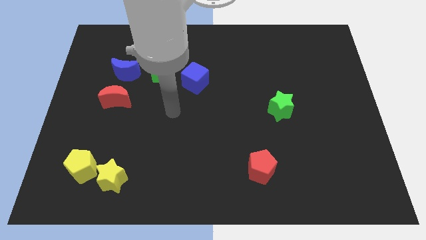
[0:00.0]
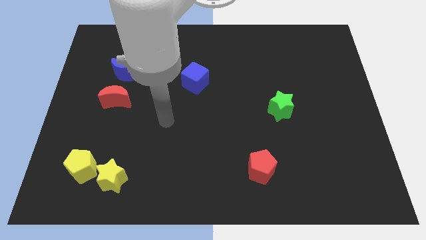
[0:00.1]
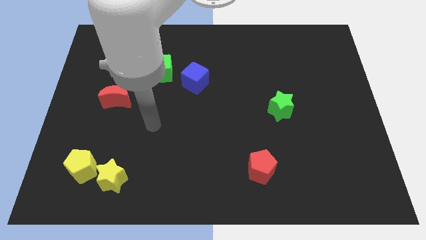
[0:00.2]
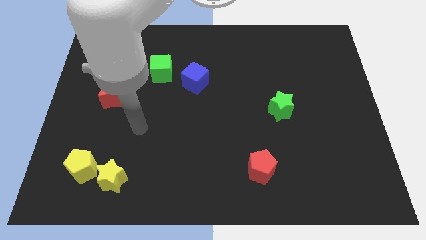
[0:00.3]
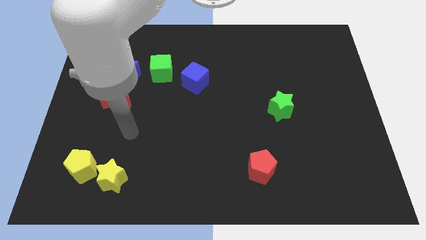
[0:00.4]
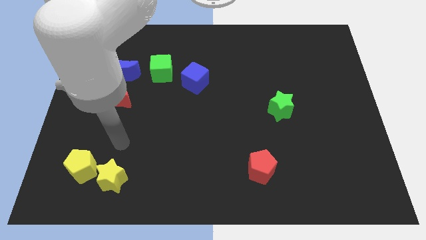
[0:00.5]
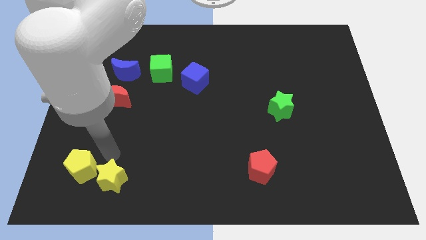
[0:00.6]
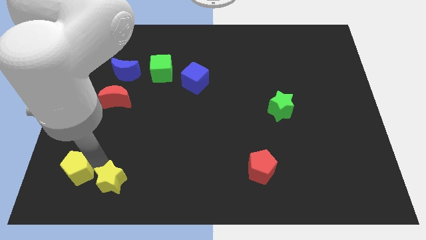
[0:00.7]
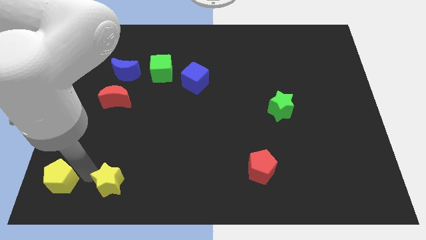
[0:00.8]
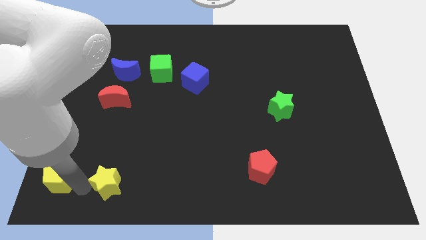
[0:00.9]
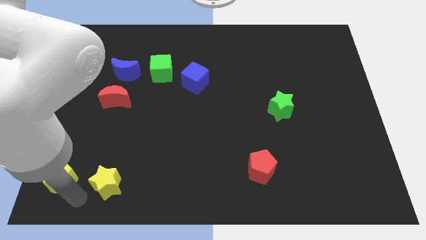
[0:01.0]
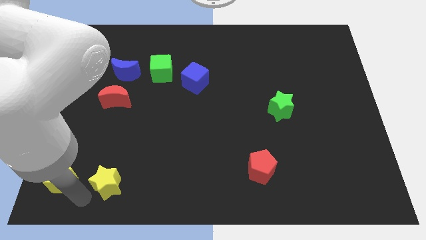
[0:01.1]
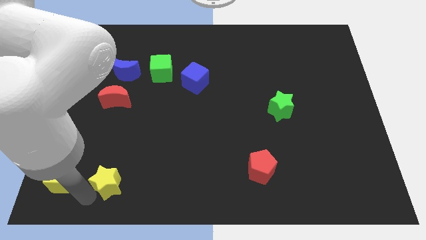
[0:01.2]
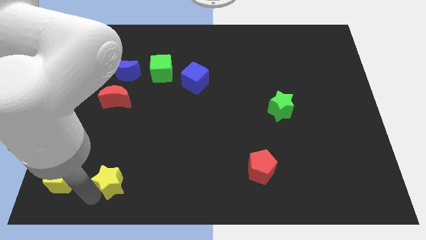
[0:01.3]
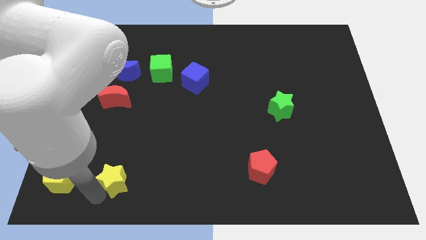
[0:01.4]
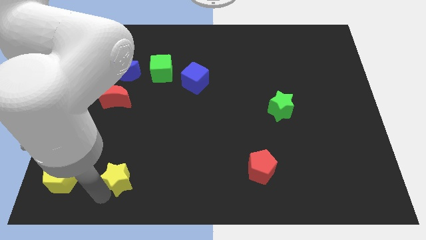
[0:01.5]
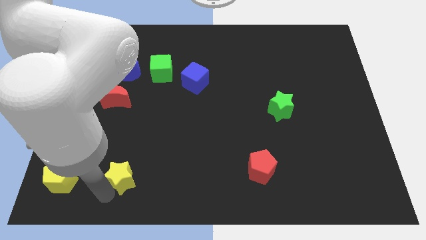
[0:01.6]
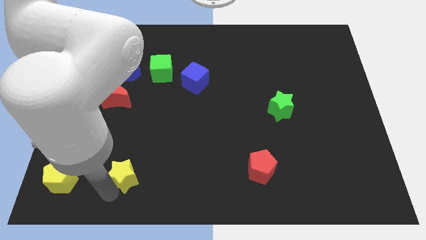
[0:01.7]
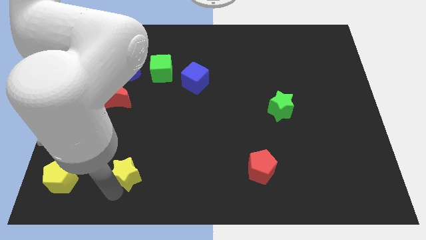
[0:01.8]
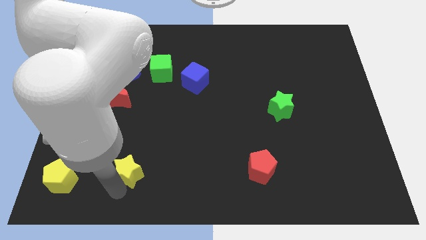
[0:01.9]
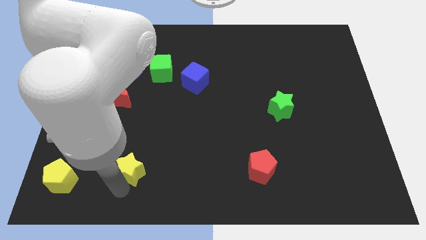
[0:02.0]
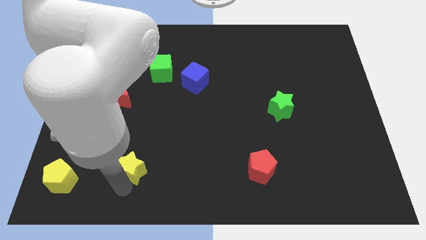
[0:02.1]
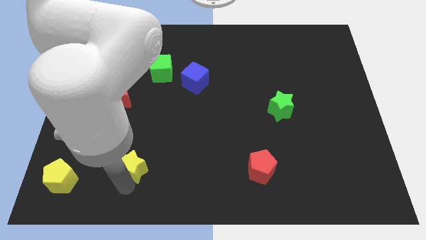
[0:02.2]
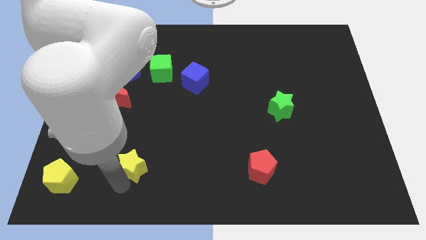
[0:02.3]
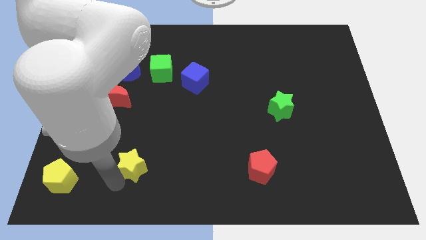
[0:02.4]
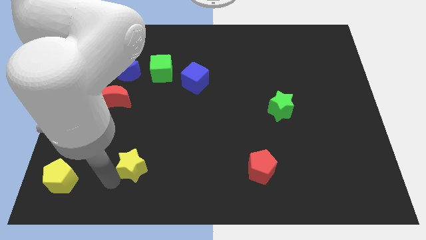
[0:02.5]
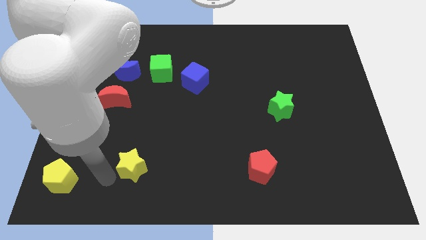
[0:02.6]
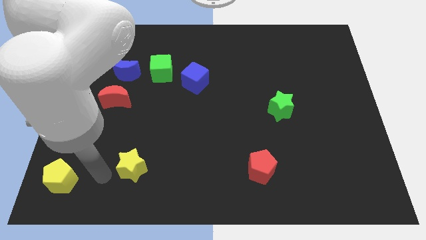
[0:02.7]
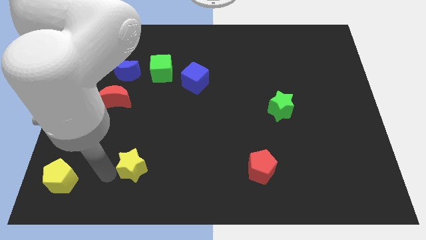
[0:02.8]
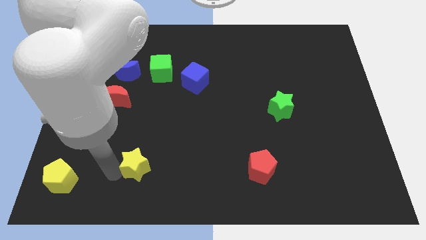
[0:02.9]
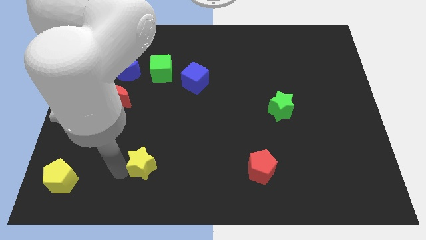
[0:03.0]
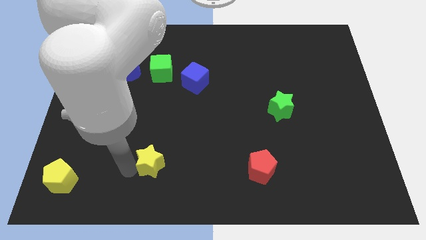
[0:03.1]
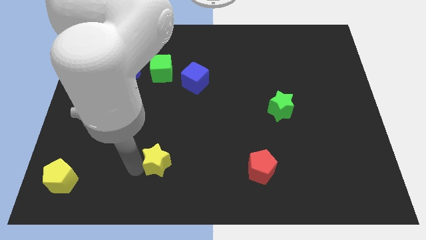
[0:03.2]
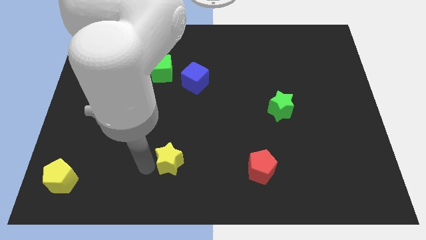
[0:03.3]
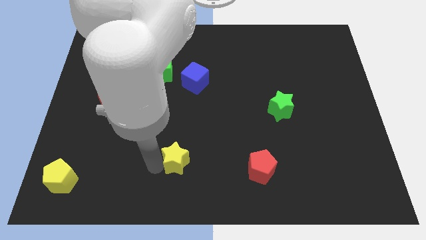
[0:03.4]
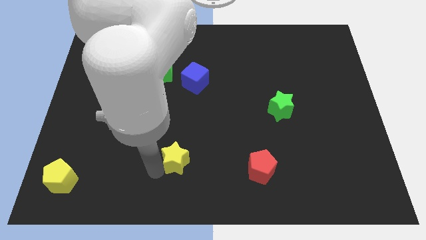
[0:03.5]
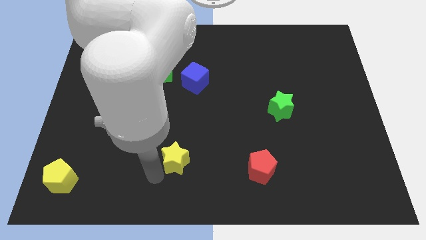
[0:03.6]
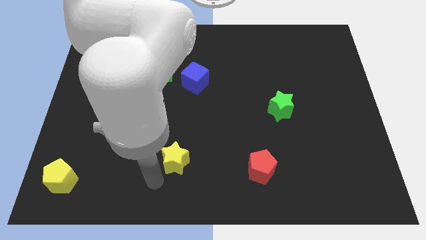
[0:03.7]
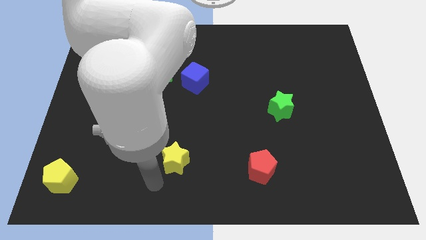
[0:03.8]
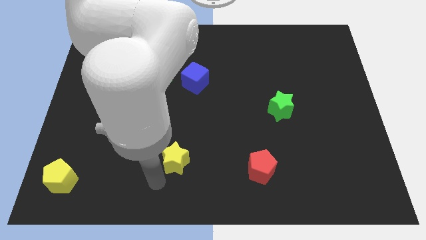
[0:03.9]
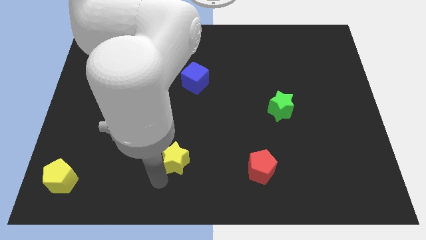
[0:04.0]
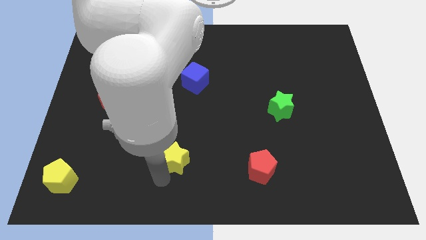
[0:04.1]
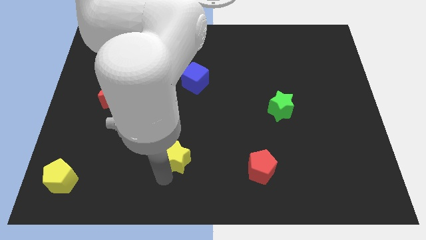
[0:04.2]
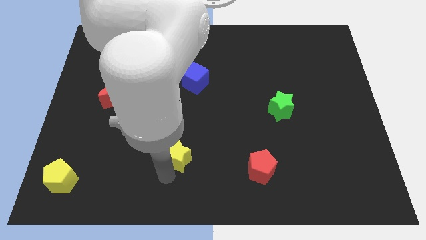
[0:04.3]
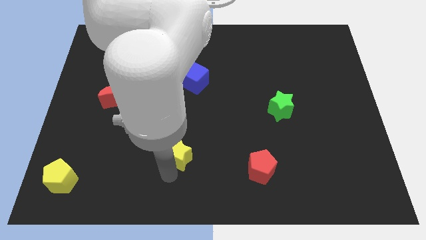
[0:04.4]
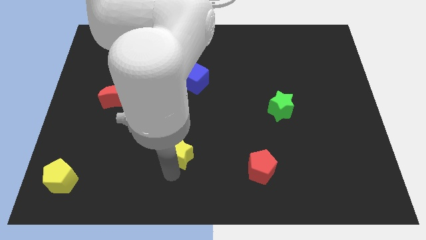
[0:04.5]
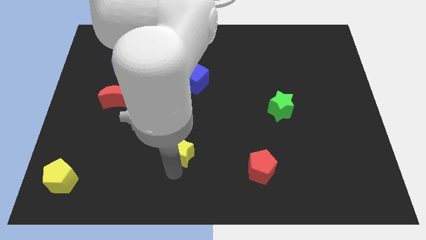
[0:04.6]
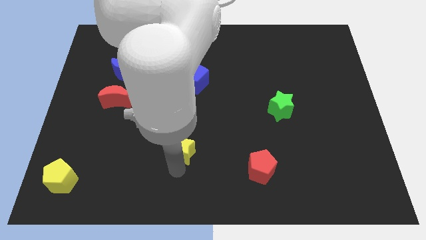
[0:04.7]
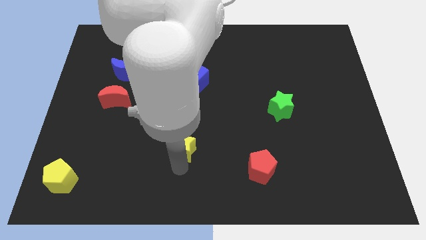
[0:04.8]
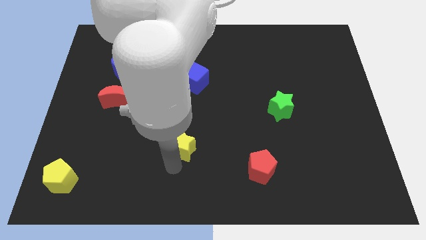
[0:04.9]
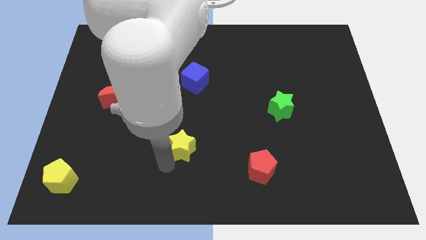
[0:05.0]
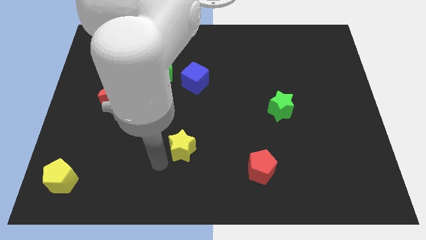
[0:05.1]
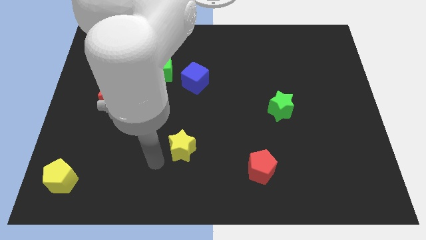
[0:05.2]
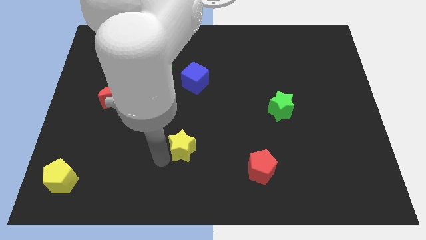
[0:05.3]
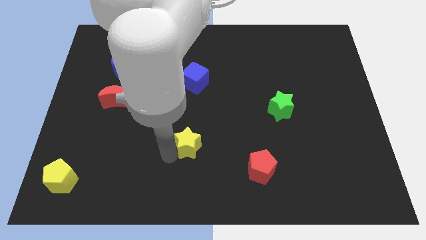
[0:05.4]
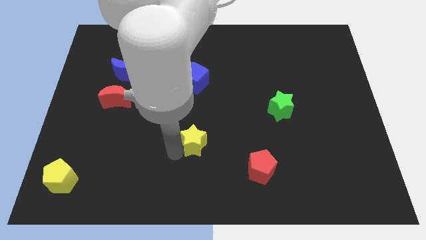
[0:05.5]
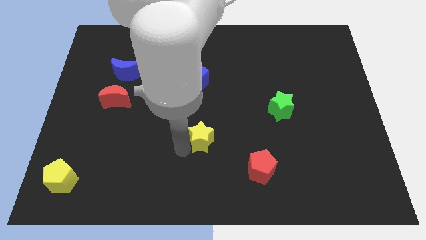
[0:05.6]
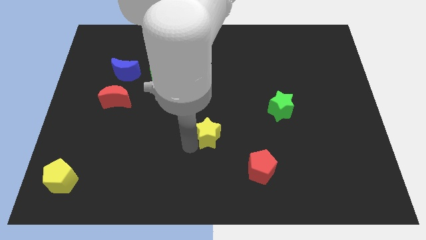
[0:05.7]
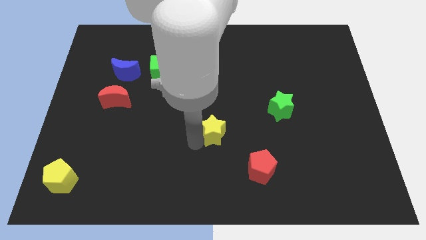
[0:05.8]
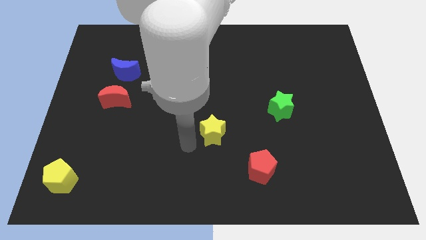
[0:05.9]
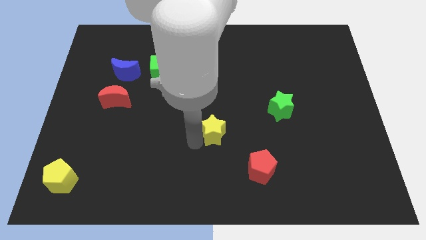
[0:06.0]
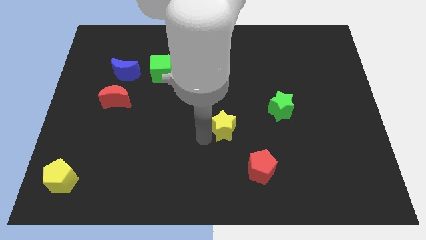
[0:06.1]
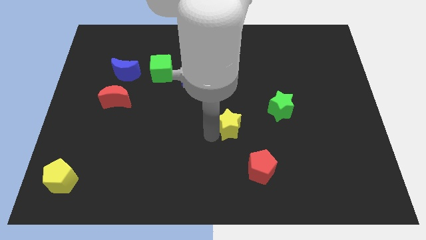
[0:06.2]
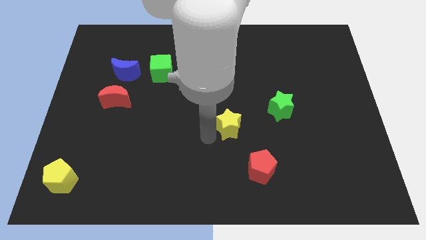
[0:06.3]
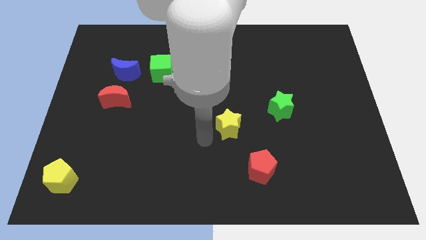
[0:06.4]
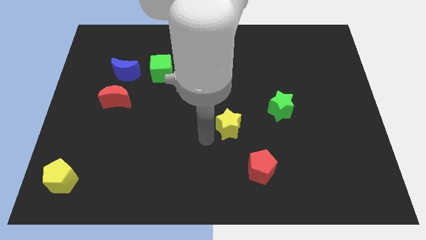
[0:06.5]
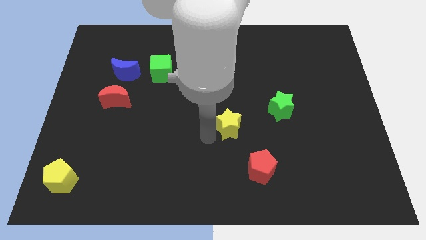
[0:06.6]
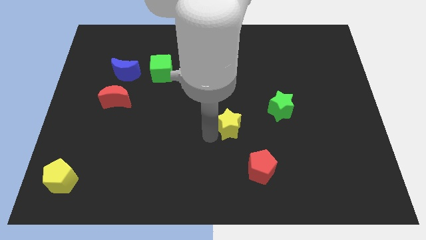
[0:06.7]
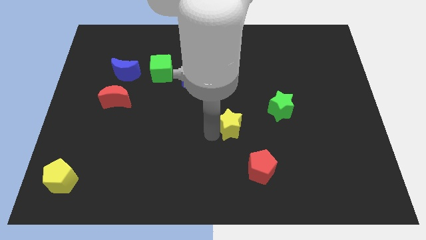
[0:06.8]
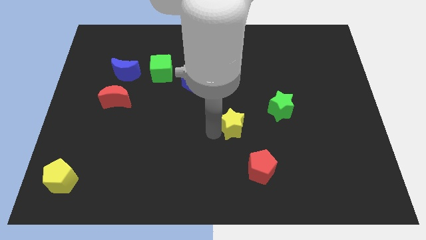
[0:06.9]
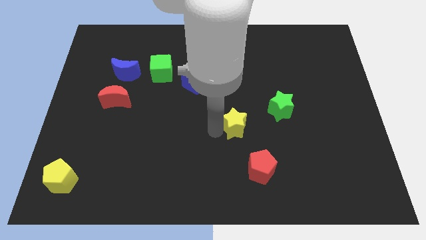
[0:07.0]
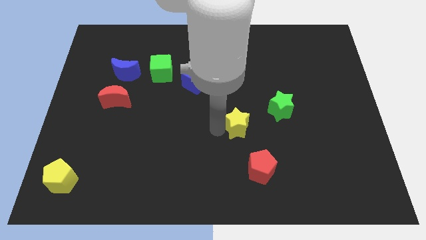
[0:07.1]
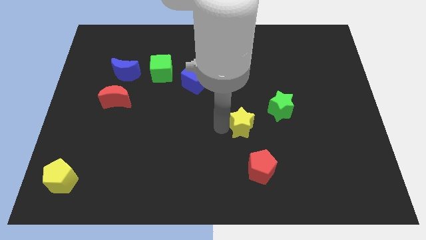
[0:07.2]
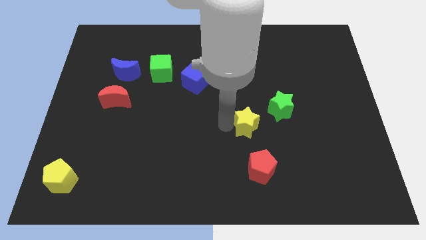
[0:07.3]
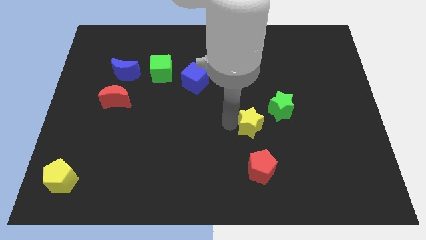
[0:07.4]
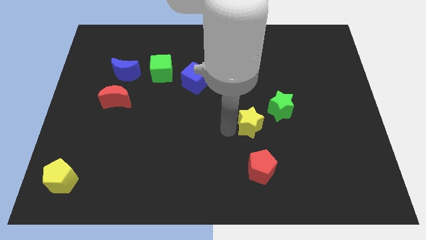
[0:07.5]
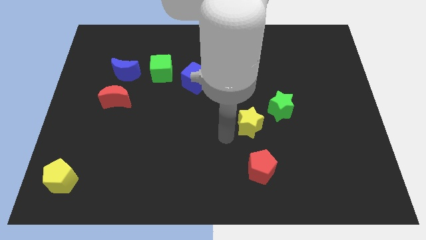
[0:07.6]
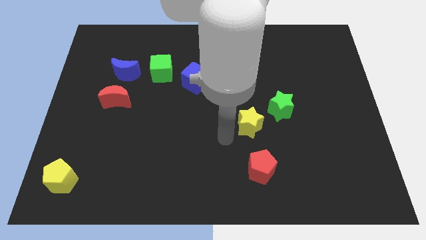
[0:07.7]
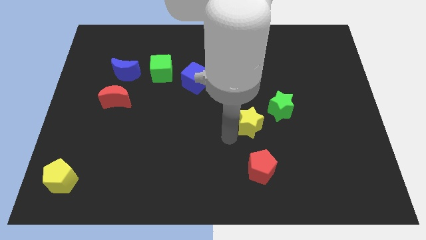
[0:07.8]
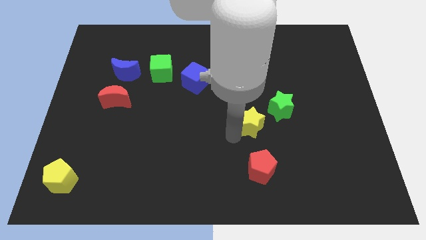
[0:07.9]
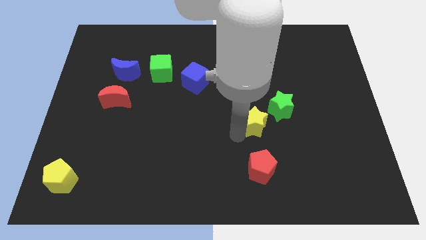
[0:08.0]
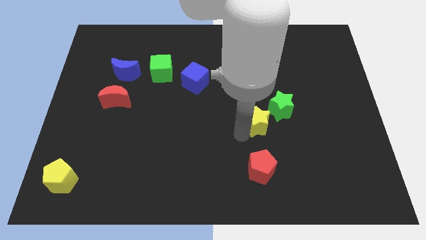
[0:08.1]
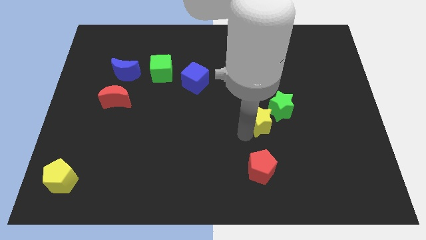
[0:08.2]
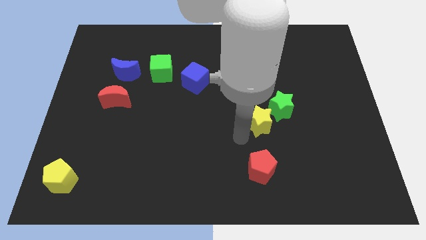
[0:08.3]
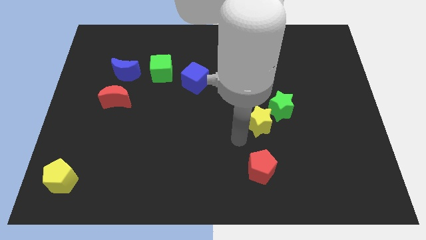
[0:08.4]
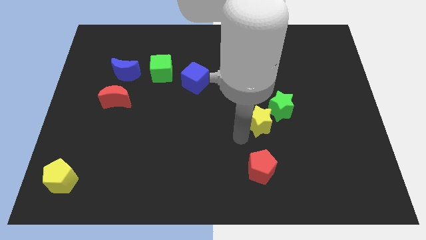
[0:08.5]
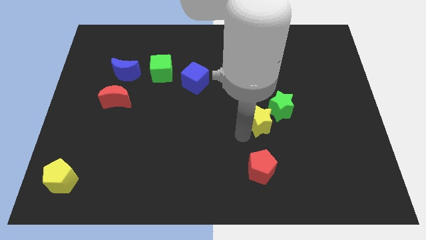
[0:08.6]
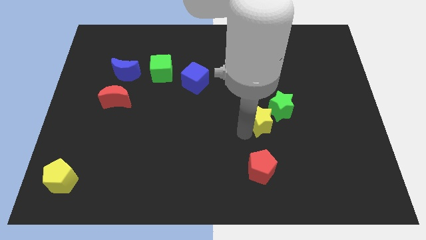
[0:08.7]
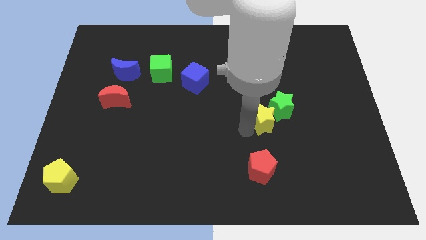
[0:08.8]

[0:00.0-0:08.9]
slide the yellow star towards the green star
